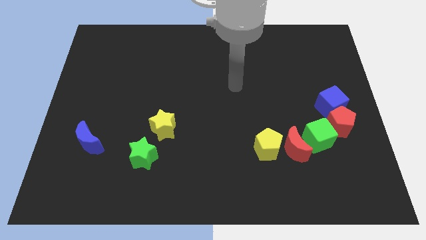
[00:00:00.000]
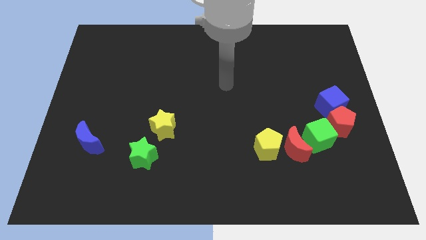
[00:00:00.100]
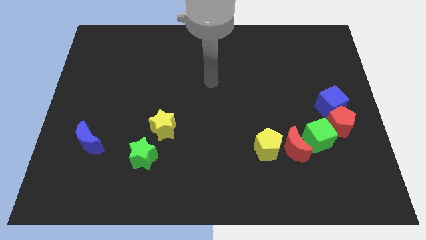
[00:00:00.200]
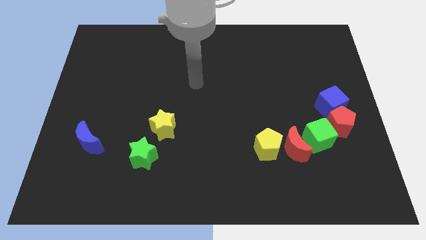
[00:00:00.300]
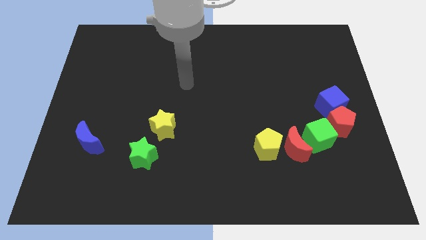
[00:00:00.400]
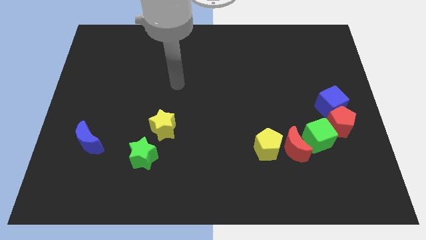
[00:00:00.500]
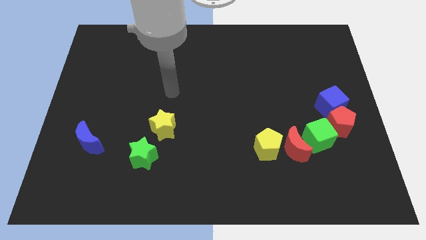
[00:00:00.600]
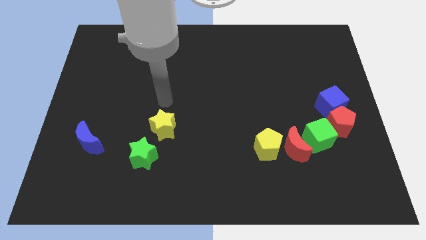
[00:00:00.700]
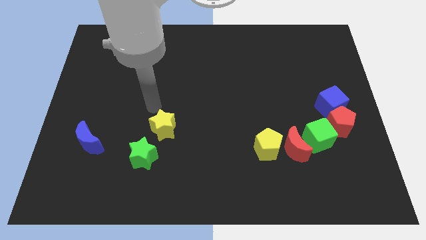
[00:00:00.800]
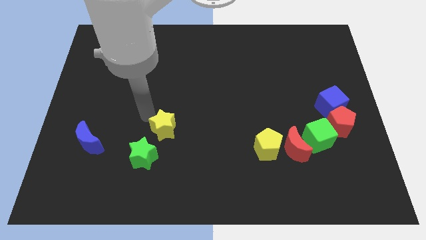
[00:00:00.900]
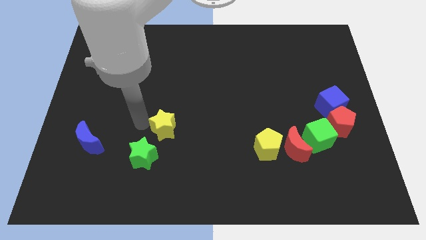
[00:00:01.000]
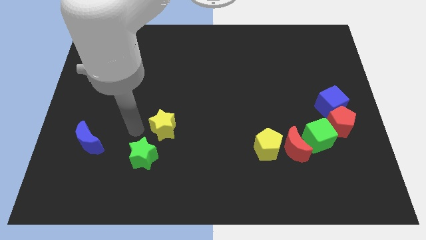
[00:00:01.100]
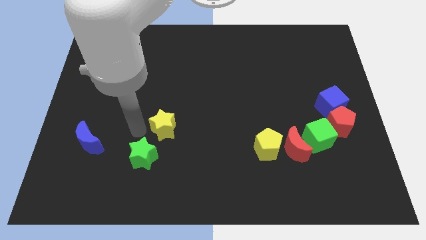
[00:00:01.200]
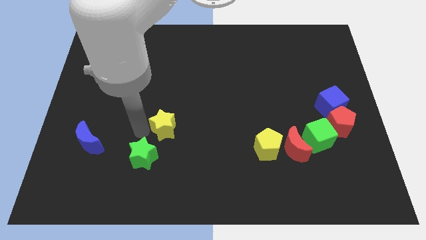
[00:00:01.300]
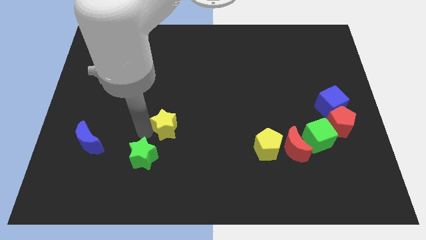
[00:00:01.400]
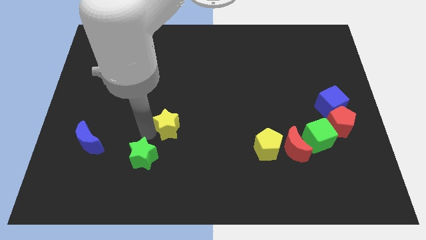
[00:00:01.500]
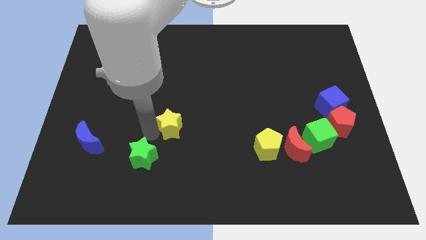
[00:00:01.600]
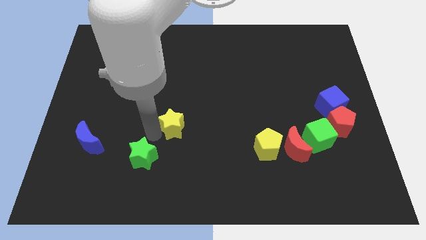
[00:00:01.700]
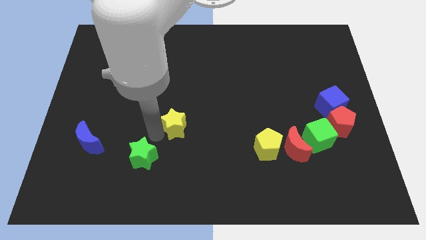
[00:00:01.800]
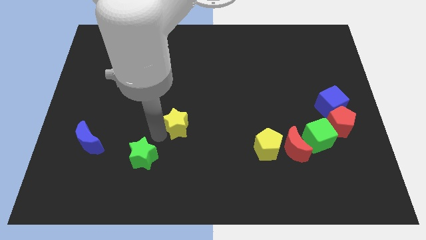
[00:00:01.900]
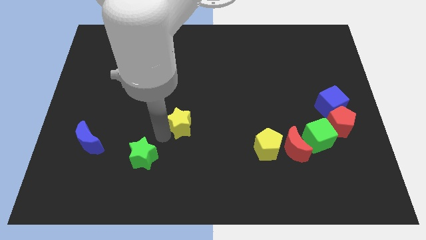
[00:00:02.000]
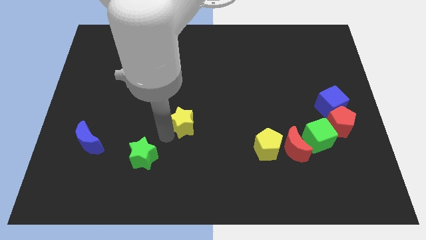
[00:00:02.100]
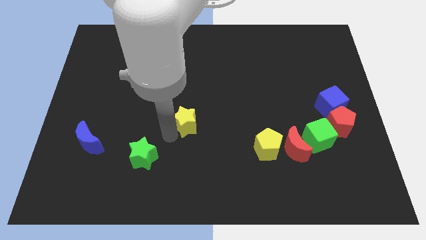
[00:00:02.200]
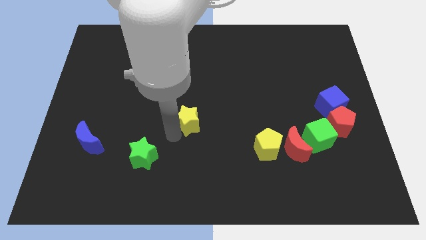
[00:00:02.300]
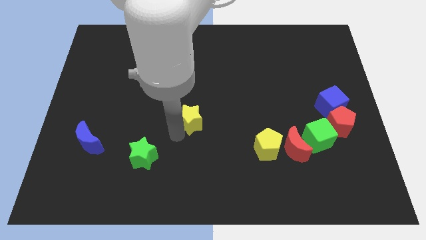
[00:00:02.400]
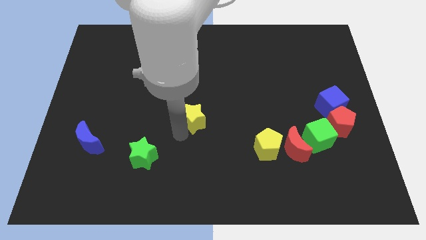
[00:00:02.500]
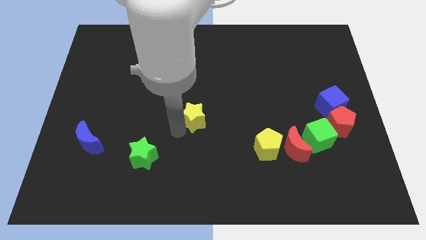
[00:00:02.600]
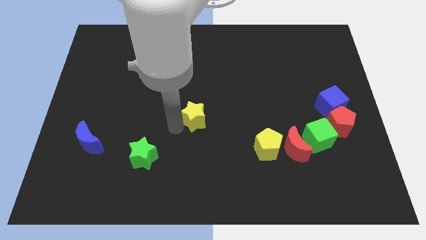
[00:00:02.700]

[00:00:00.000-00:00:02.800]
slide the yellow star right a little

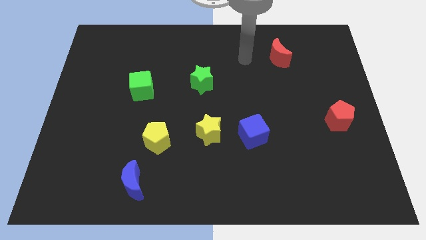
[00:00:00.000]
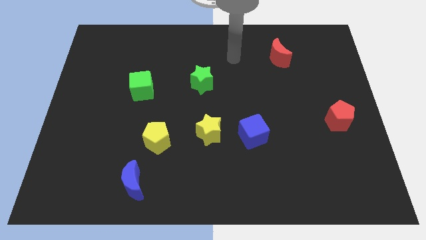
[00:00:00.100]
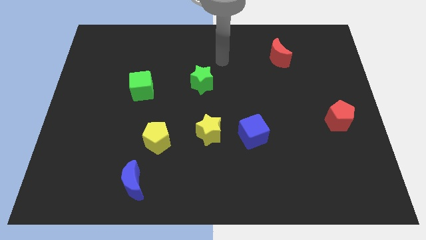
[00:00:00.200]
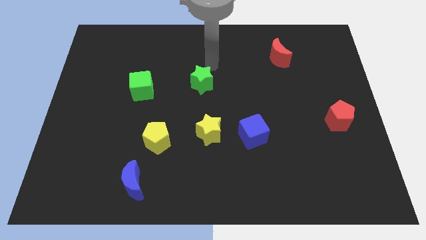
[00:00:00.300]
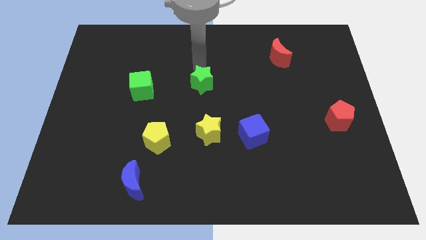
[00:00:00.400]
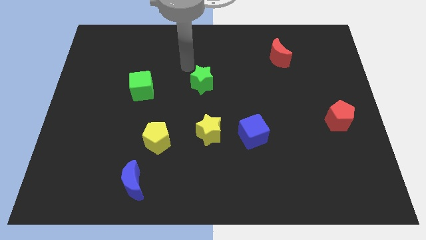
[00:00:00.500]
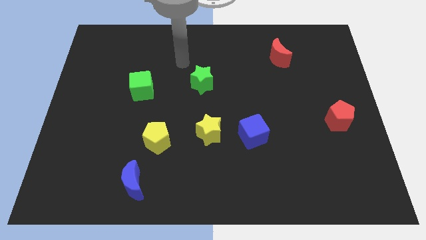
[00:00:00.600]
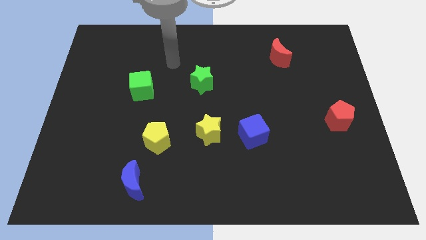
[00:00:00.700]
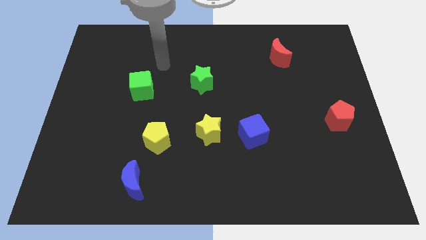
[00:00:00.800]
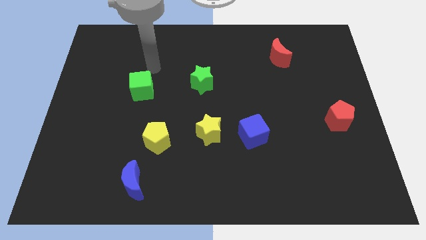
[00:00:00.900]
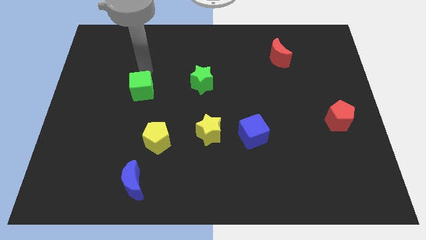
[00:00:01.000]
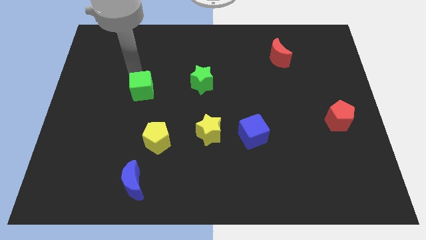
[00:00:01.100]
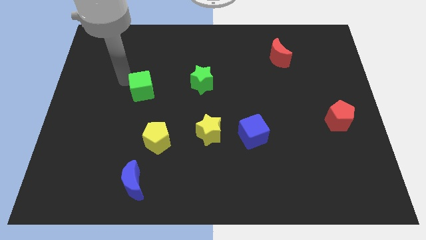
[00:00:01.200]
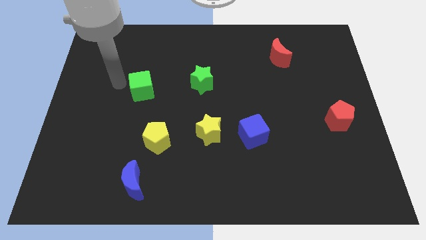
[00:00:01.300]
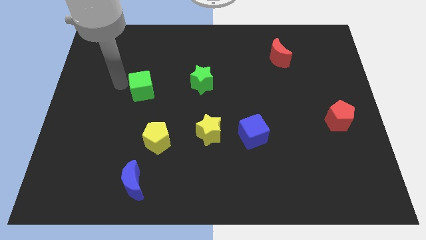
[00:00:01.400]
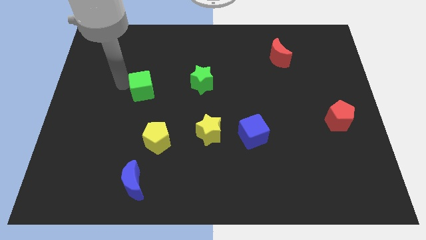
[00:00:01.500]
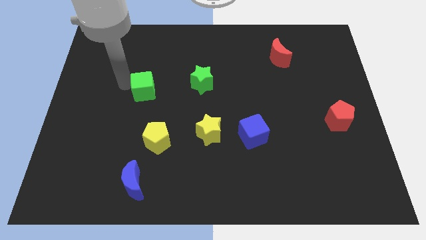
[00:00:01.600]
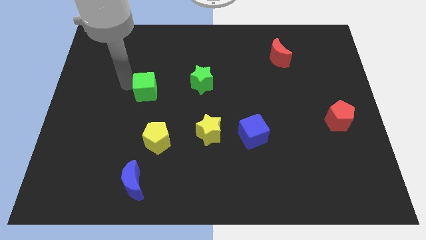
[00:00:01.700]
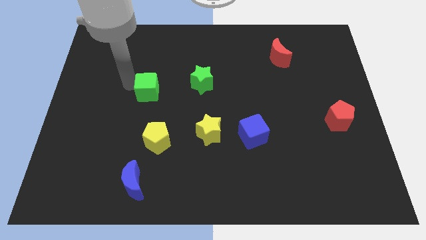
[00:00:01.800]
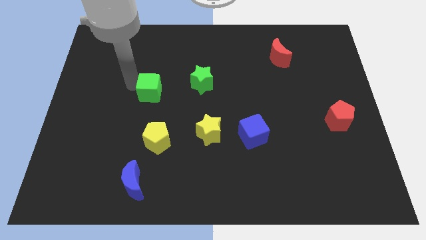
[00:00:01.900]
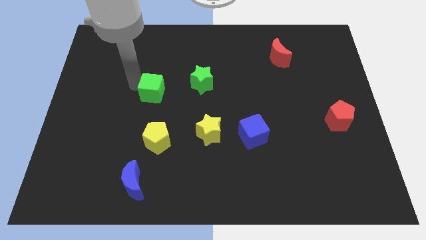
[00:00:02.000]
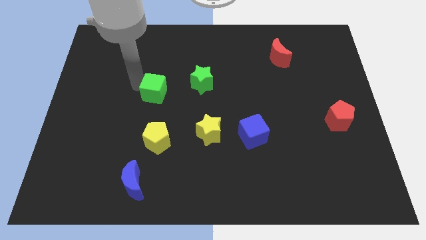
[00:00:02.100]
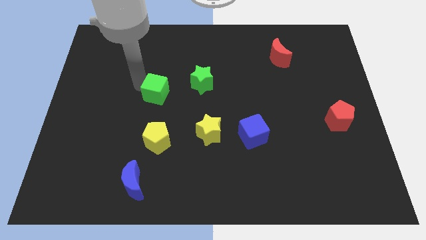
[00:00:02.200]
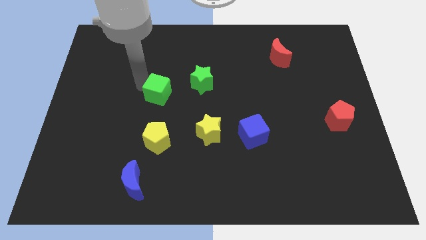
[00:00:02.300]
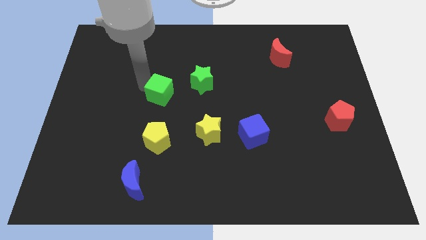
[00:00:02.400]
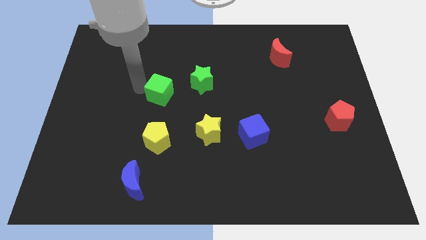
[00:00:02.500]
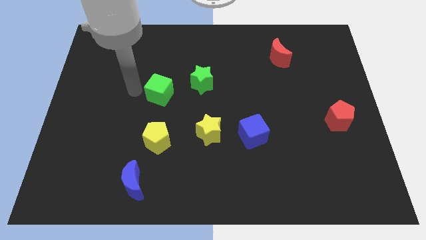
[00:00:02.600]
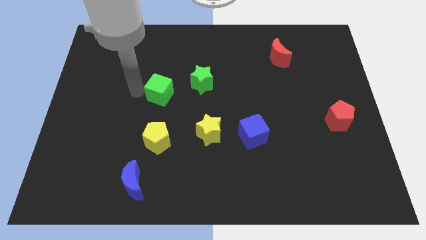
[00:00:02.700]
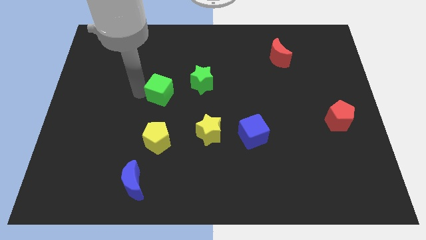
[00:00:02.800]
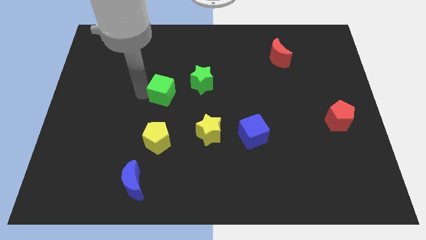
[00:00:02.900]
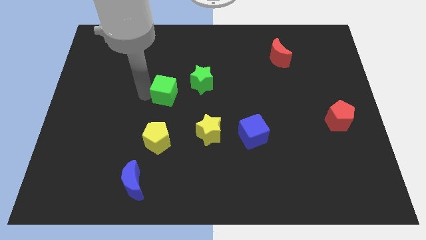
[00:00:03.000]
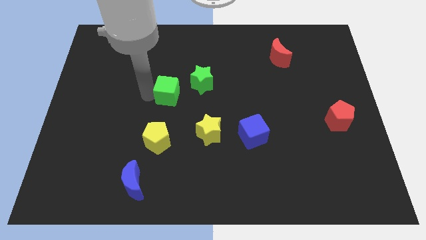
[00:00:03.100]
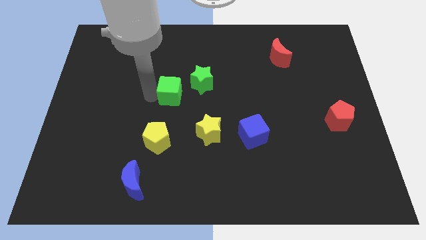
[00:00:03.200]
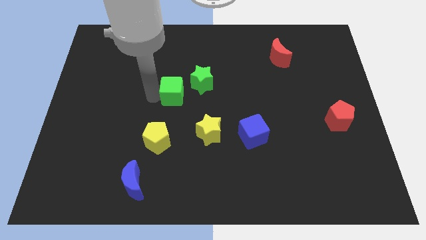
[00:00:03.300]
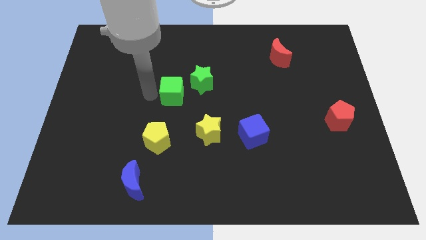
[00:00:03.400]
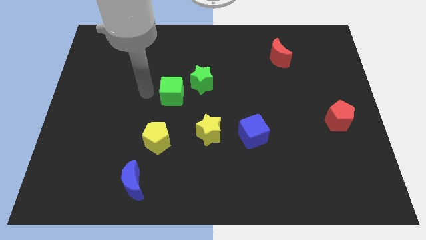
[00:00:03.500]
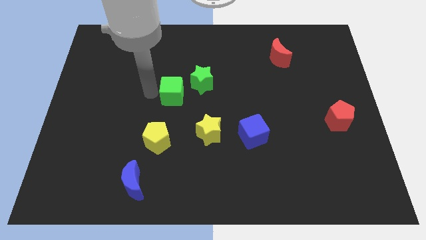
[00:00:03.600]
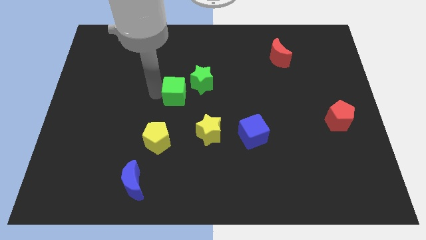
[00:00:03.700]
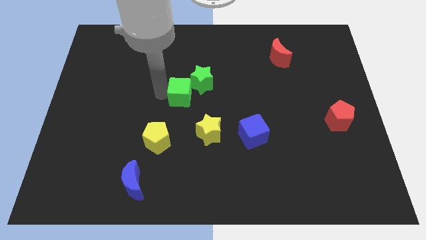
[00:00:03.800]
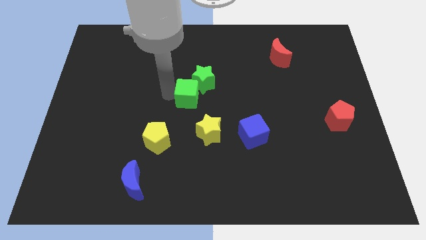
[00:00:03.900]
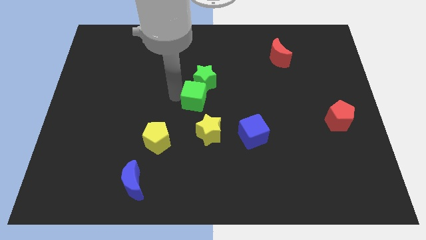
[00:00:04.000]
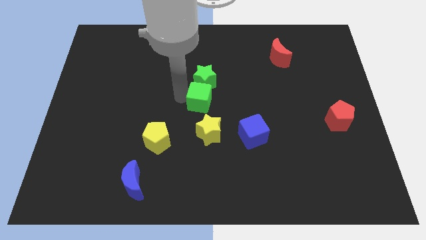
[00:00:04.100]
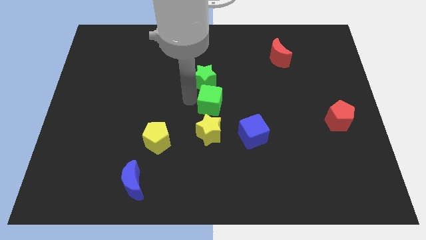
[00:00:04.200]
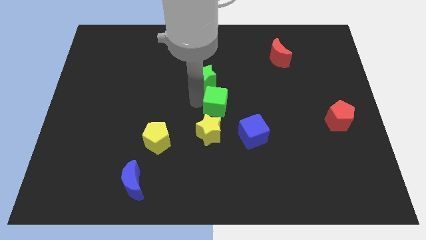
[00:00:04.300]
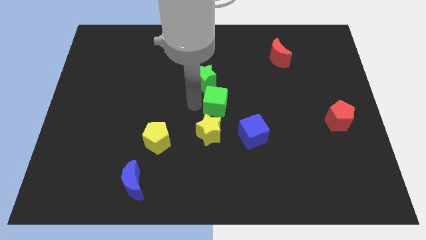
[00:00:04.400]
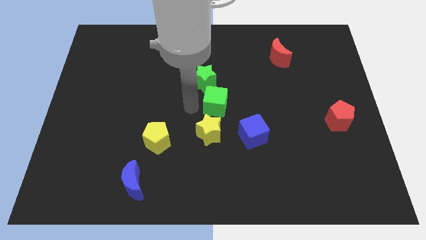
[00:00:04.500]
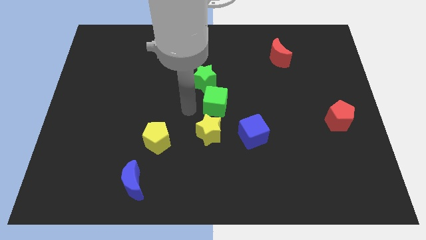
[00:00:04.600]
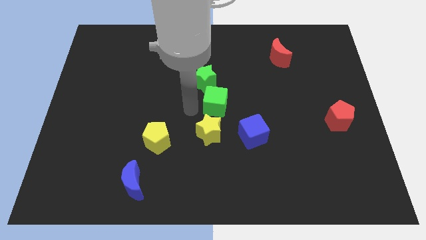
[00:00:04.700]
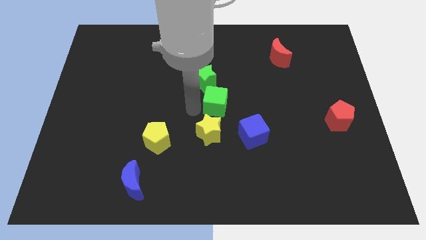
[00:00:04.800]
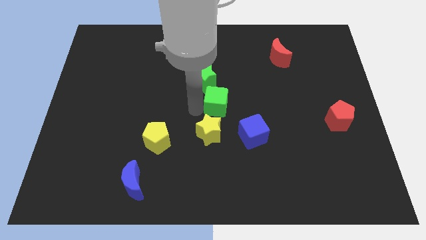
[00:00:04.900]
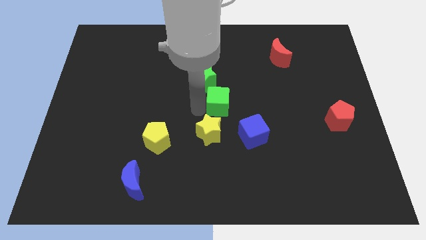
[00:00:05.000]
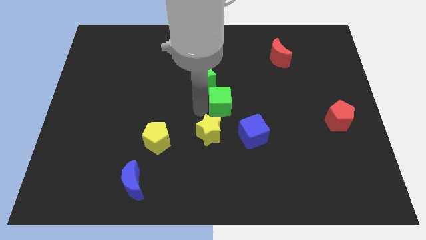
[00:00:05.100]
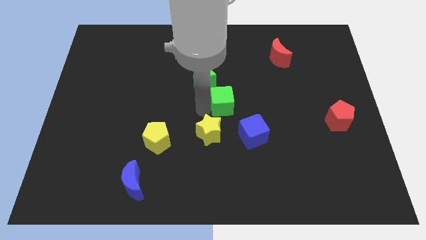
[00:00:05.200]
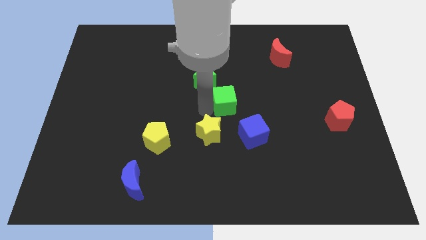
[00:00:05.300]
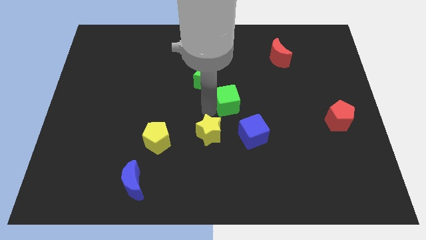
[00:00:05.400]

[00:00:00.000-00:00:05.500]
move the green cube right
